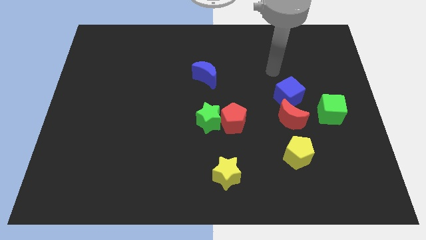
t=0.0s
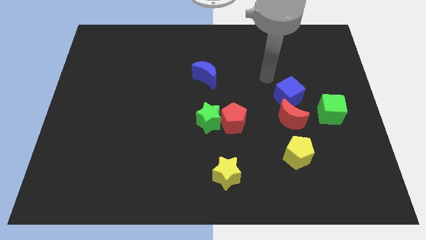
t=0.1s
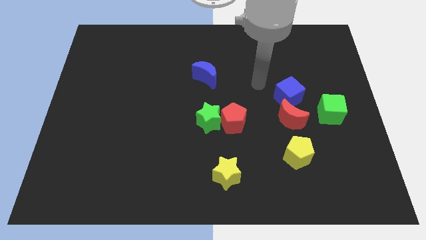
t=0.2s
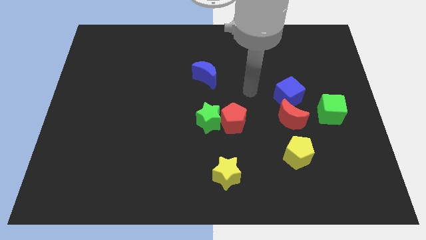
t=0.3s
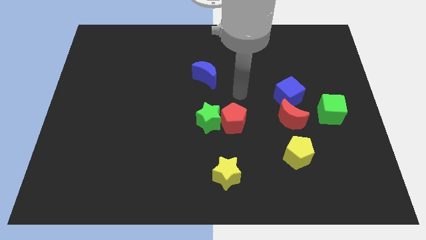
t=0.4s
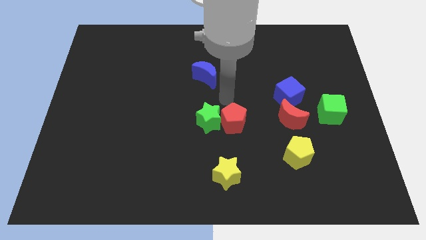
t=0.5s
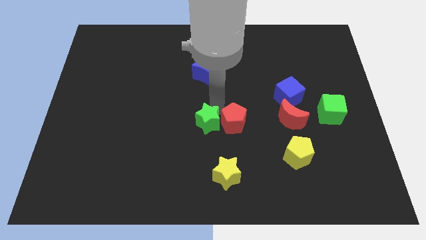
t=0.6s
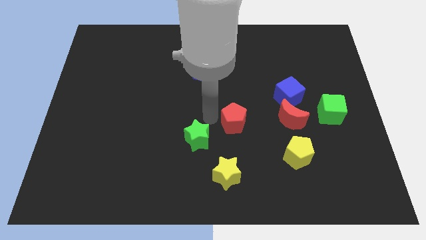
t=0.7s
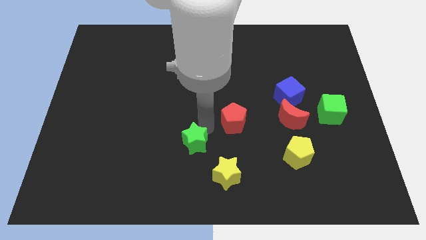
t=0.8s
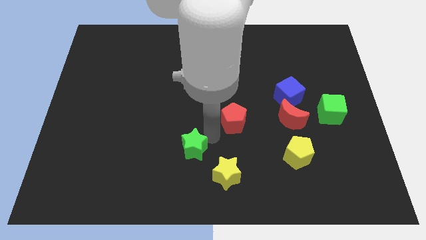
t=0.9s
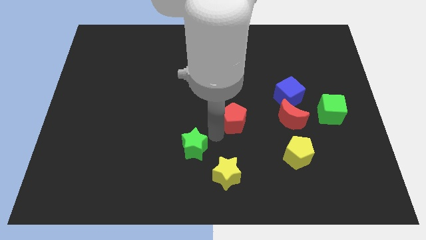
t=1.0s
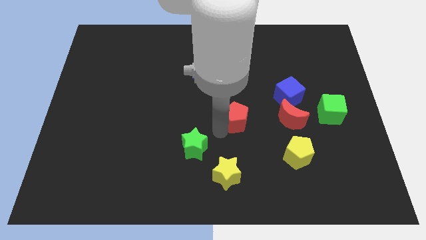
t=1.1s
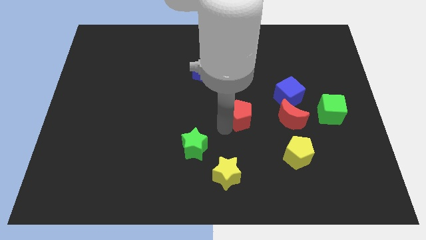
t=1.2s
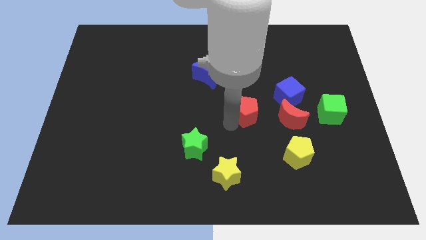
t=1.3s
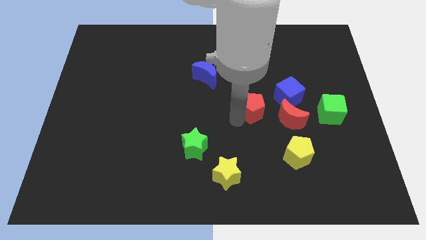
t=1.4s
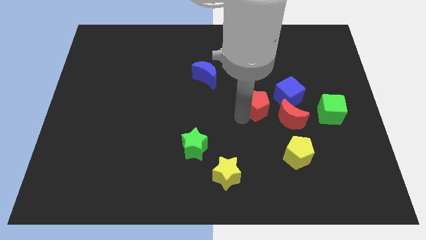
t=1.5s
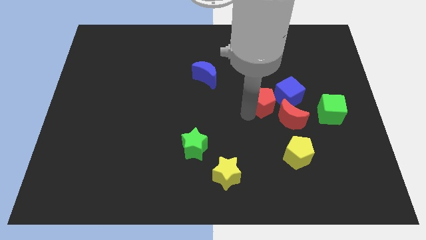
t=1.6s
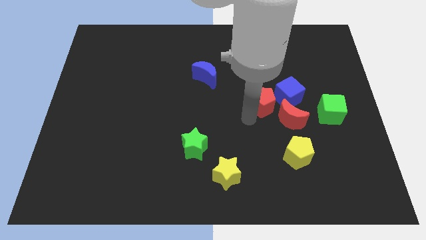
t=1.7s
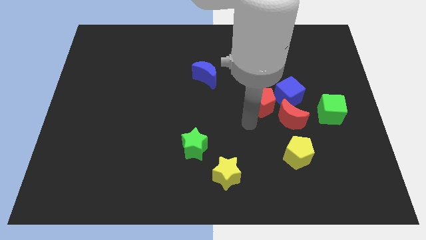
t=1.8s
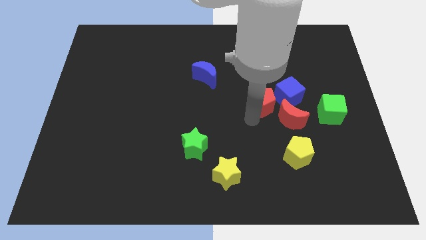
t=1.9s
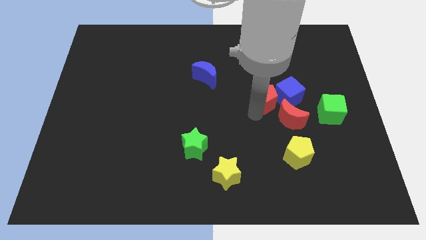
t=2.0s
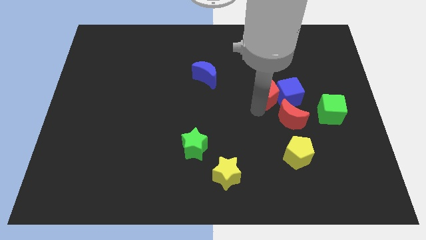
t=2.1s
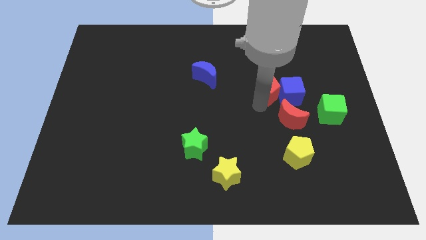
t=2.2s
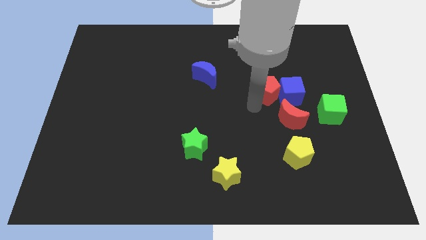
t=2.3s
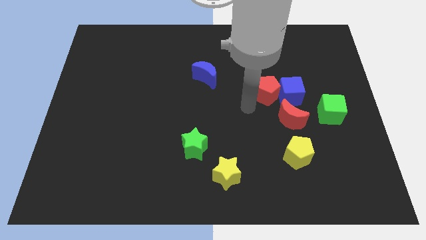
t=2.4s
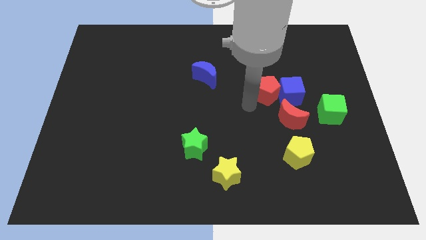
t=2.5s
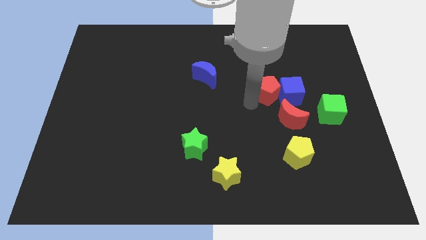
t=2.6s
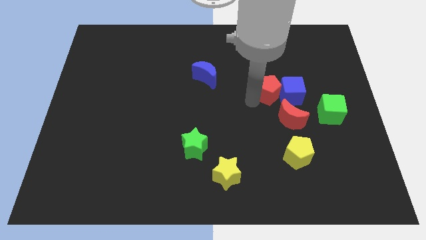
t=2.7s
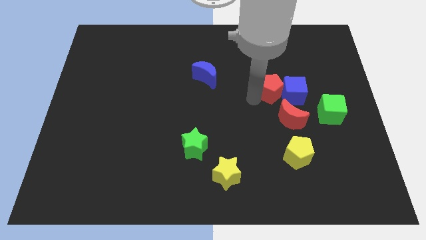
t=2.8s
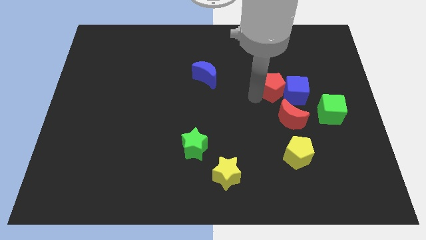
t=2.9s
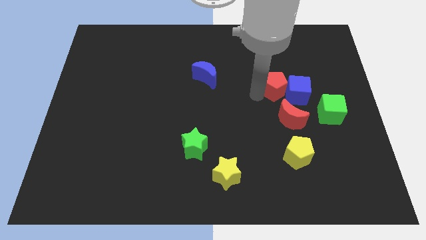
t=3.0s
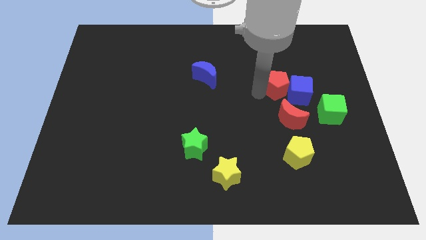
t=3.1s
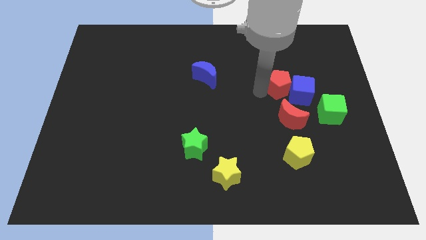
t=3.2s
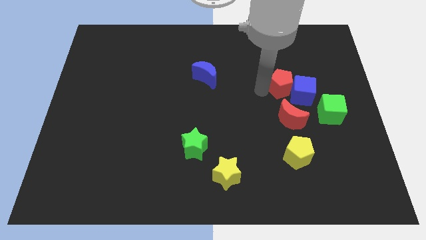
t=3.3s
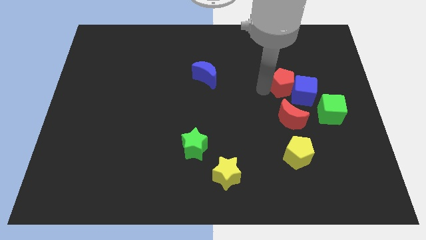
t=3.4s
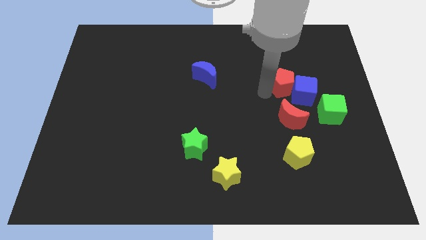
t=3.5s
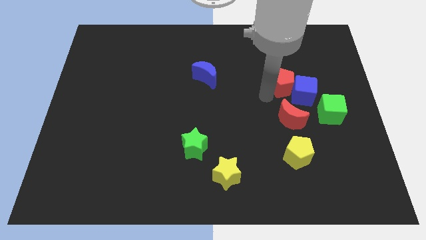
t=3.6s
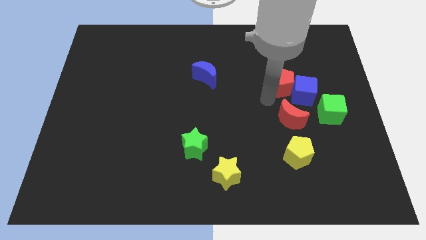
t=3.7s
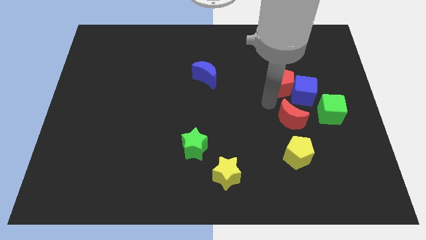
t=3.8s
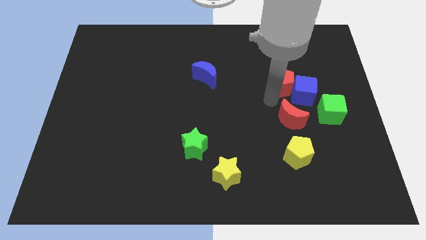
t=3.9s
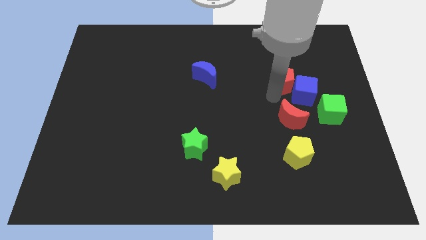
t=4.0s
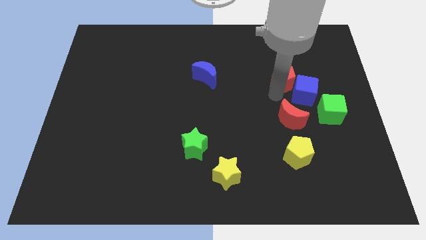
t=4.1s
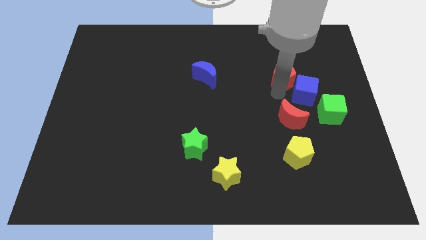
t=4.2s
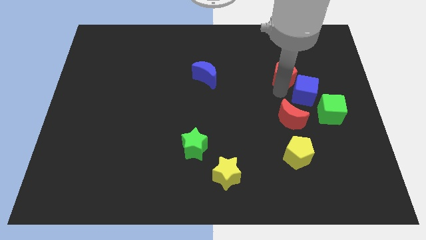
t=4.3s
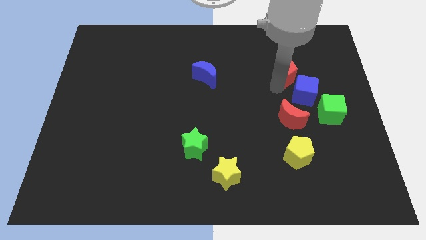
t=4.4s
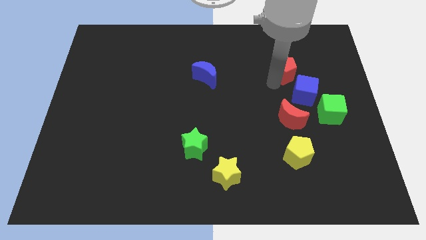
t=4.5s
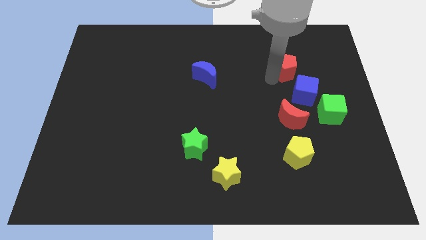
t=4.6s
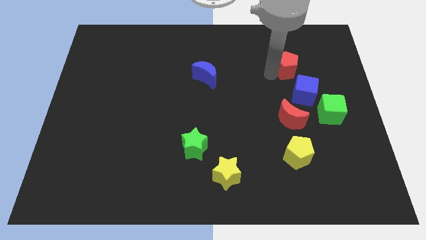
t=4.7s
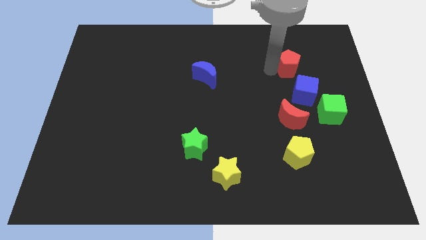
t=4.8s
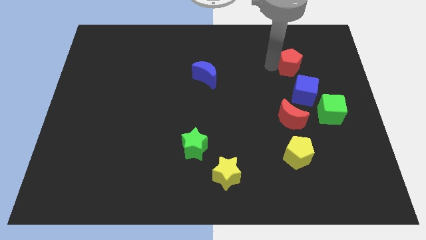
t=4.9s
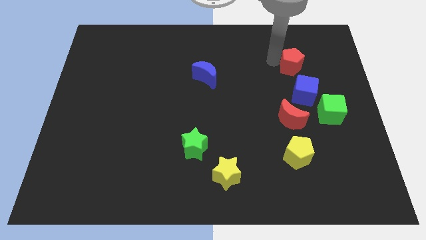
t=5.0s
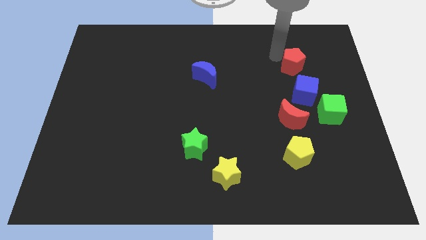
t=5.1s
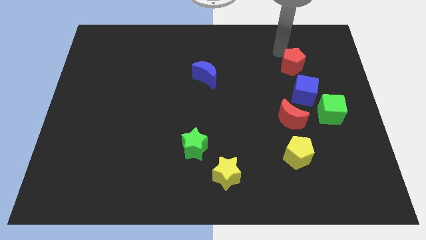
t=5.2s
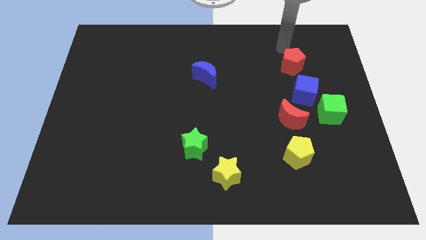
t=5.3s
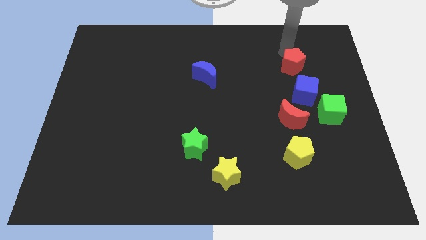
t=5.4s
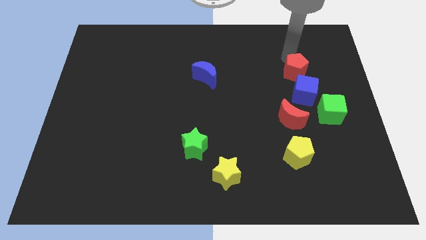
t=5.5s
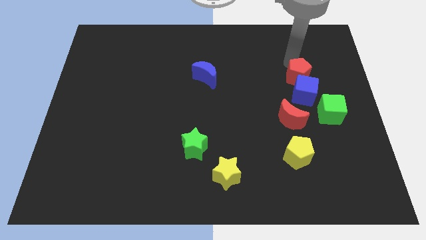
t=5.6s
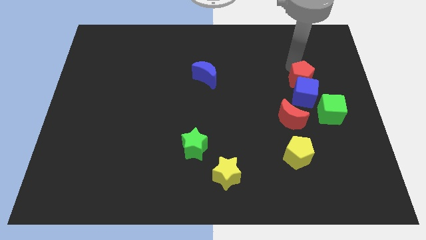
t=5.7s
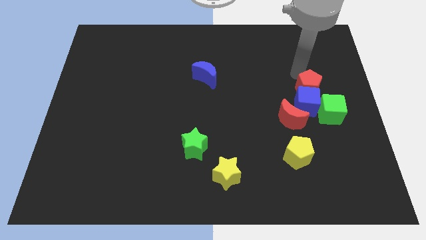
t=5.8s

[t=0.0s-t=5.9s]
slide the red pentagon to the right a bit

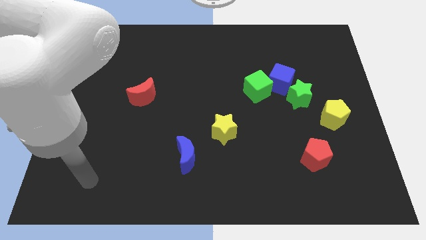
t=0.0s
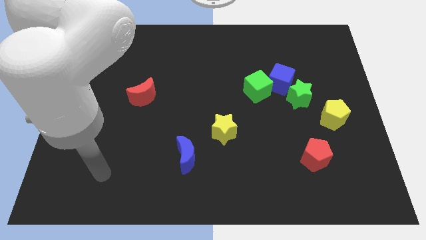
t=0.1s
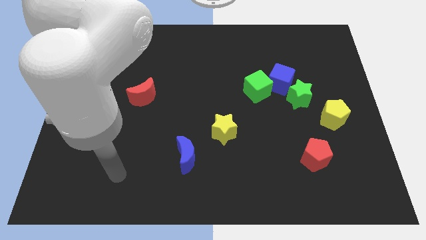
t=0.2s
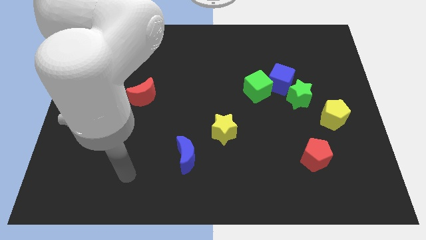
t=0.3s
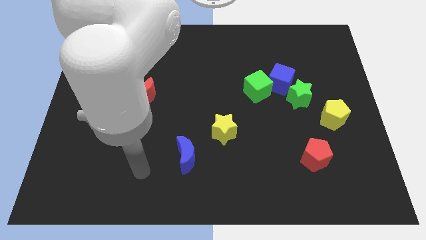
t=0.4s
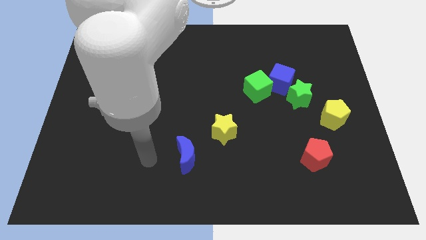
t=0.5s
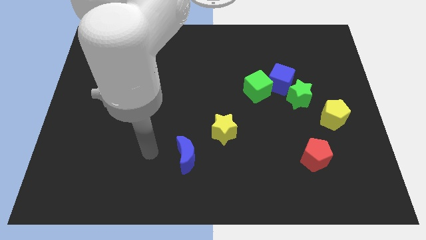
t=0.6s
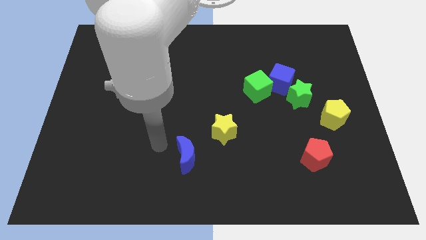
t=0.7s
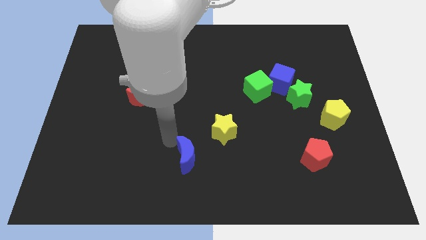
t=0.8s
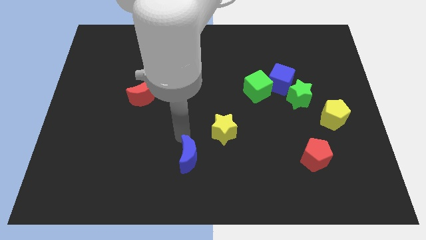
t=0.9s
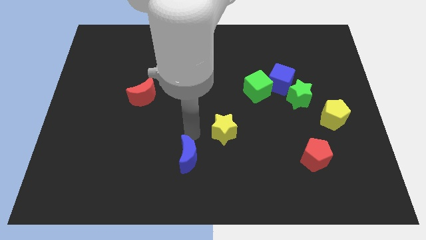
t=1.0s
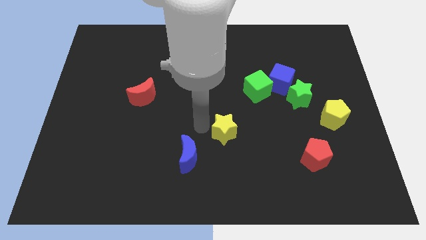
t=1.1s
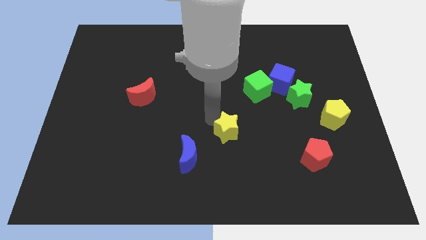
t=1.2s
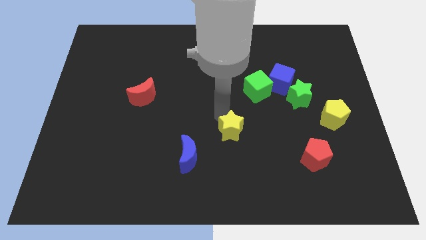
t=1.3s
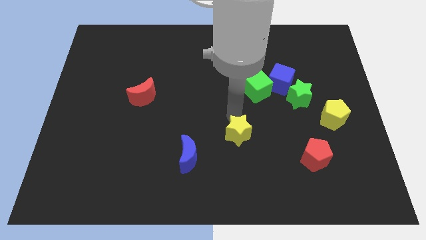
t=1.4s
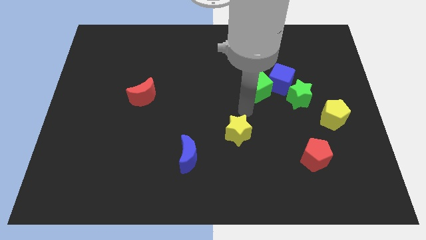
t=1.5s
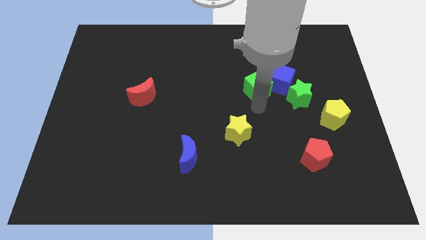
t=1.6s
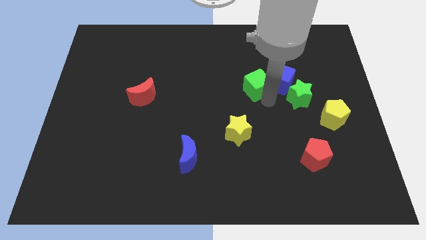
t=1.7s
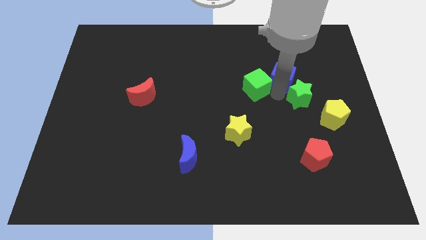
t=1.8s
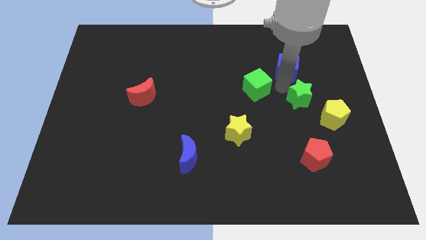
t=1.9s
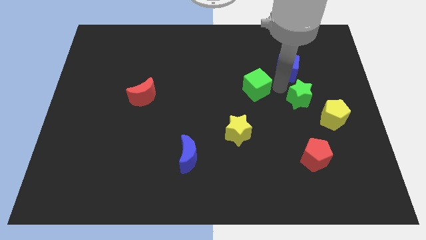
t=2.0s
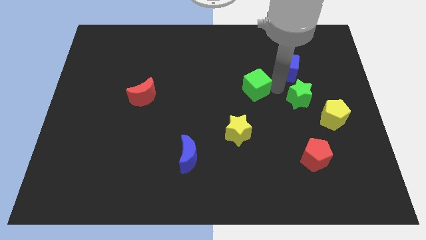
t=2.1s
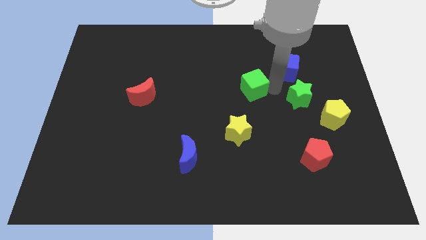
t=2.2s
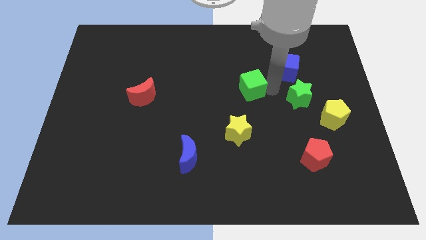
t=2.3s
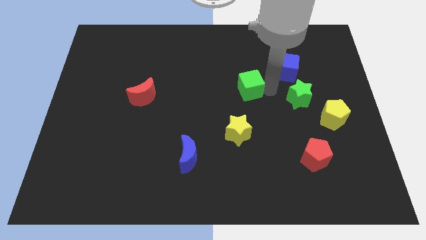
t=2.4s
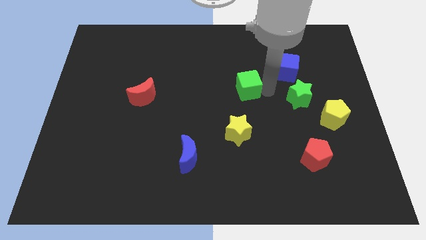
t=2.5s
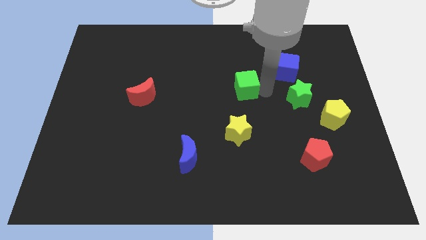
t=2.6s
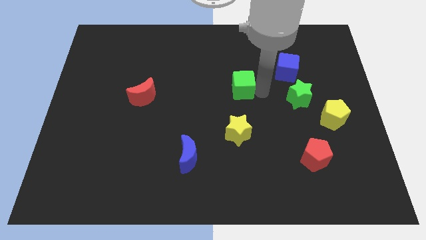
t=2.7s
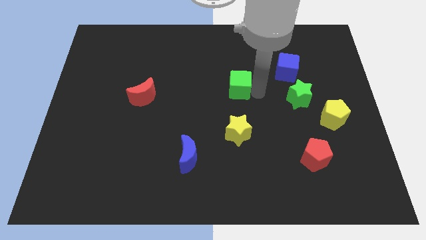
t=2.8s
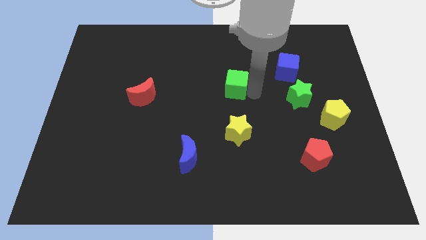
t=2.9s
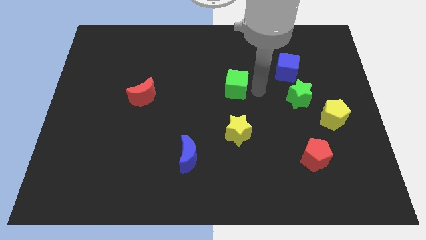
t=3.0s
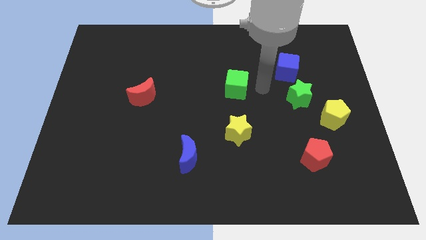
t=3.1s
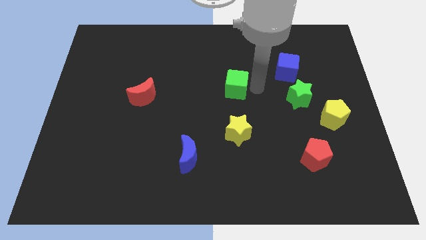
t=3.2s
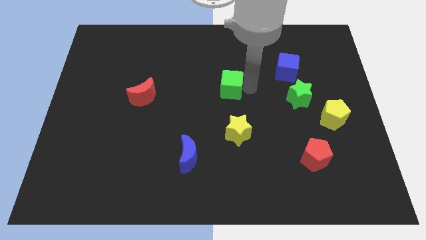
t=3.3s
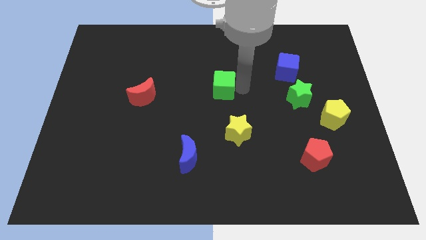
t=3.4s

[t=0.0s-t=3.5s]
slide the green cube a bit left
